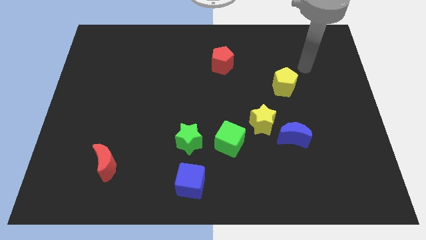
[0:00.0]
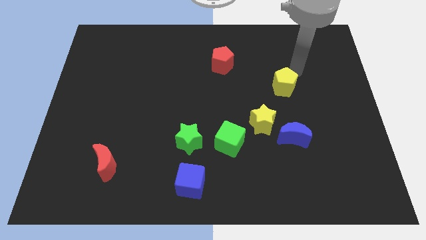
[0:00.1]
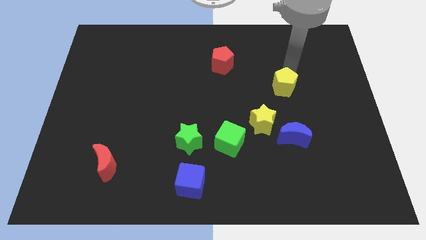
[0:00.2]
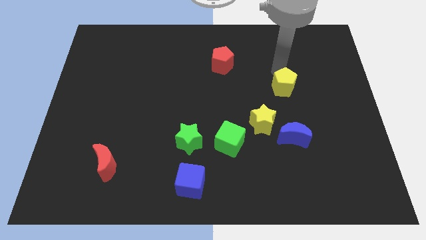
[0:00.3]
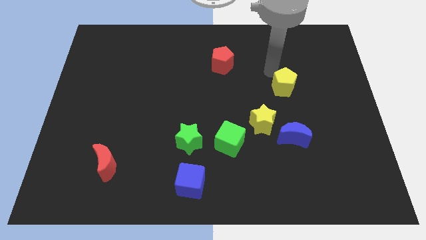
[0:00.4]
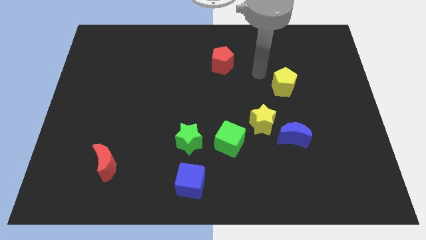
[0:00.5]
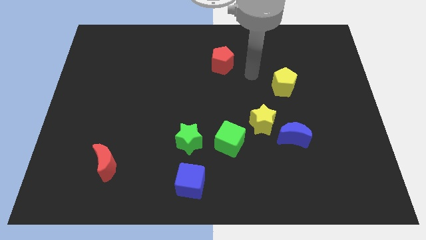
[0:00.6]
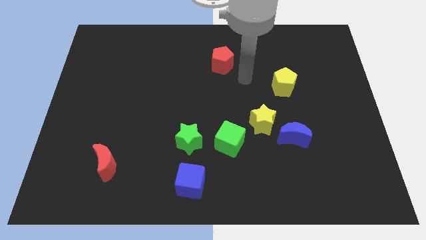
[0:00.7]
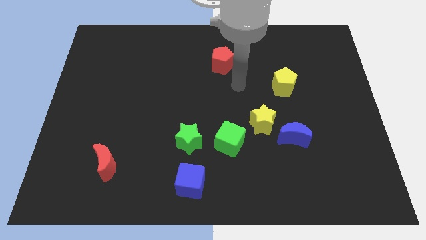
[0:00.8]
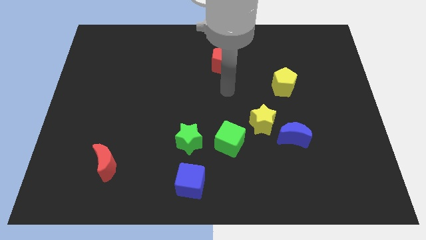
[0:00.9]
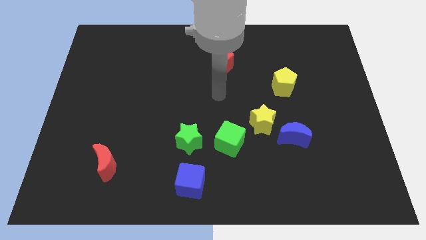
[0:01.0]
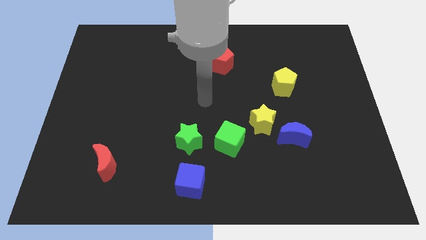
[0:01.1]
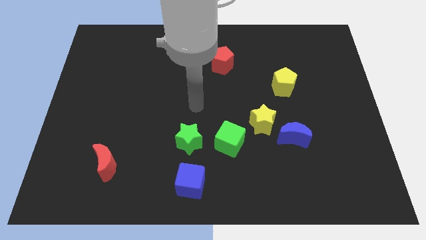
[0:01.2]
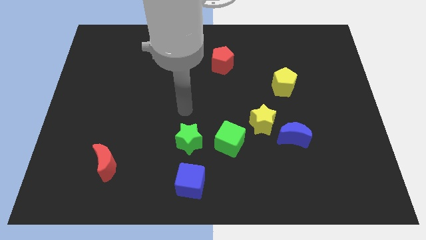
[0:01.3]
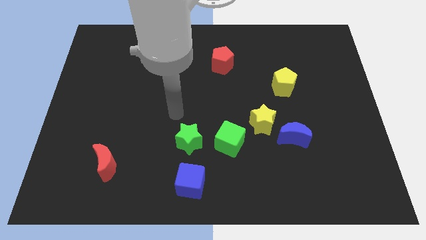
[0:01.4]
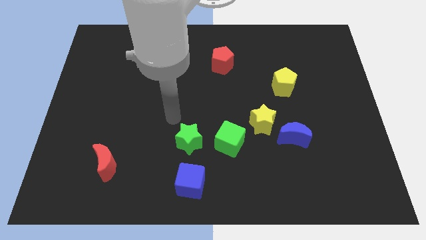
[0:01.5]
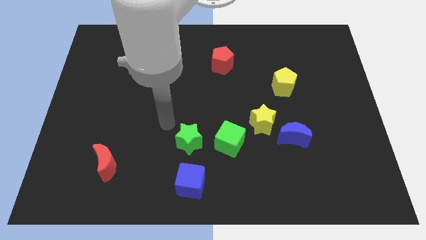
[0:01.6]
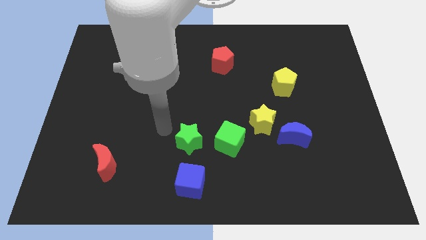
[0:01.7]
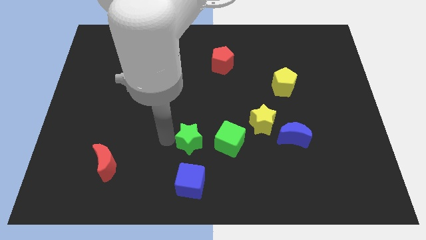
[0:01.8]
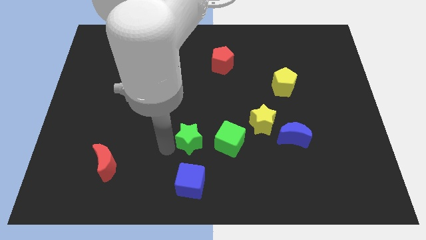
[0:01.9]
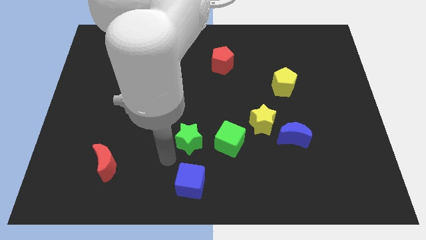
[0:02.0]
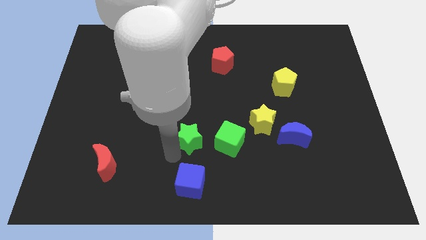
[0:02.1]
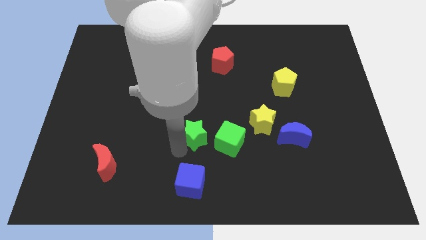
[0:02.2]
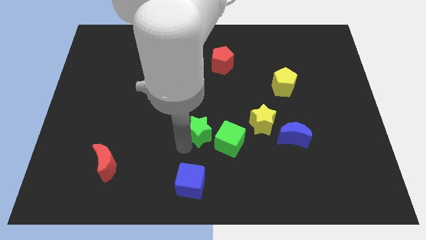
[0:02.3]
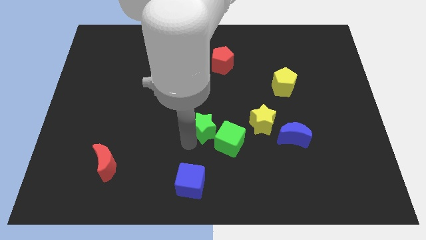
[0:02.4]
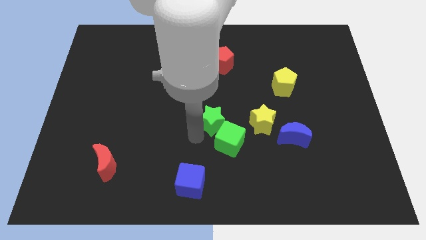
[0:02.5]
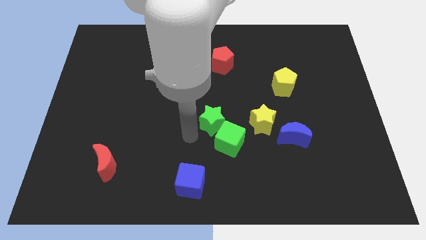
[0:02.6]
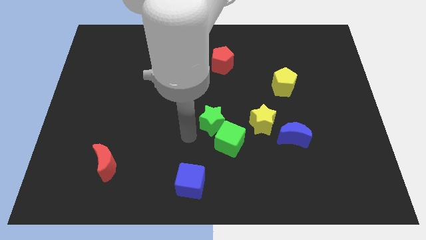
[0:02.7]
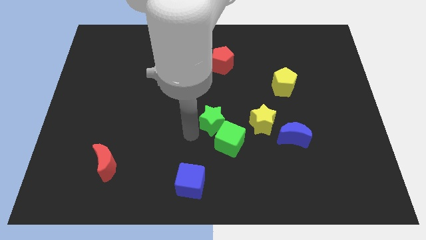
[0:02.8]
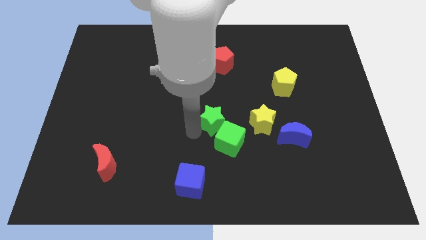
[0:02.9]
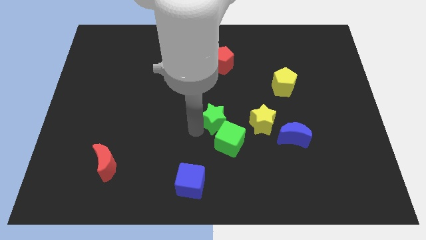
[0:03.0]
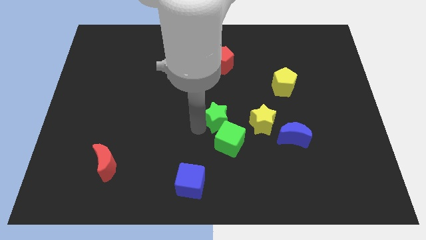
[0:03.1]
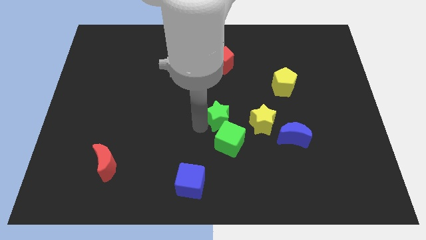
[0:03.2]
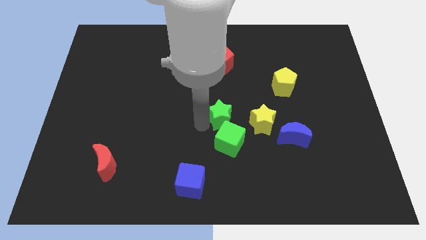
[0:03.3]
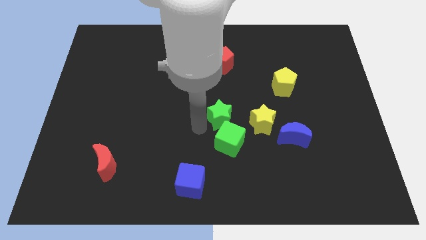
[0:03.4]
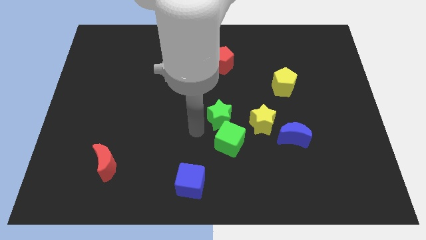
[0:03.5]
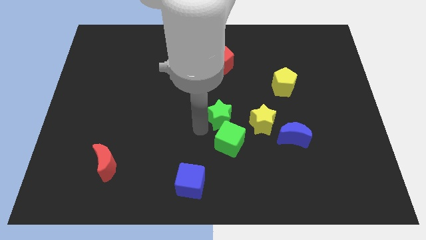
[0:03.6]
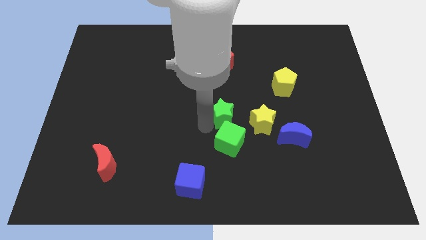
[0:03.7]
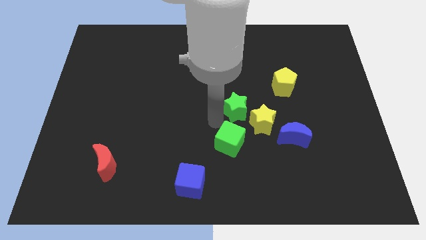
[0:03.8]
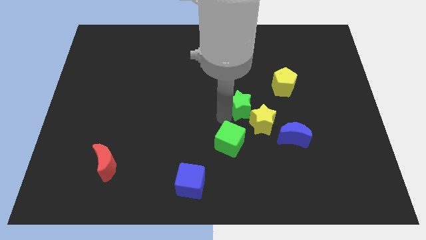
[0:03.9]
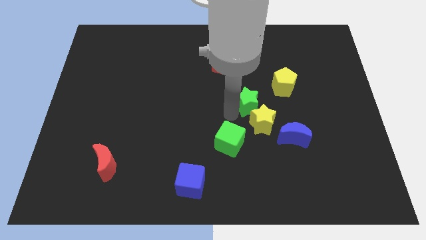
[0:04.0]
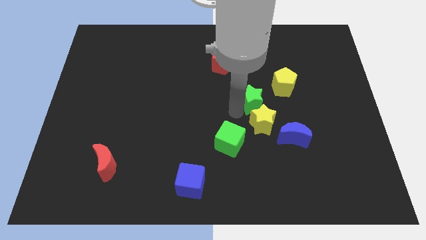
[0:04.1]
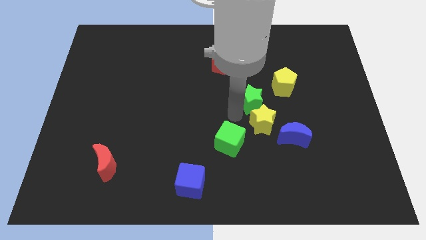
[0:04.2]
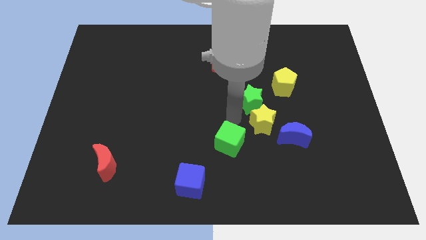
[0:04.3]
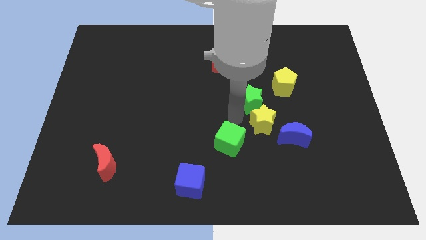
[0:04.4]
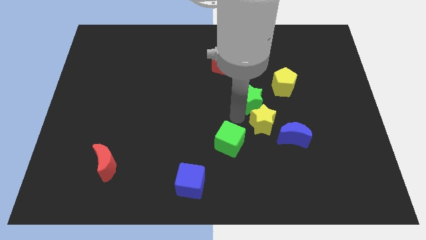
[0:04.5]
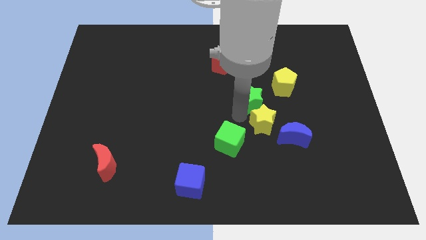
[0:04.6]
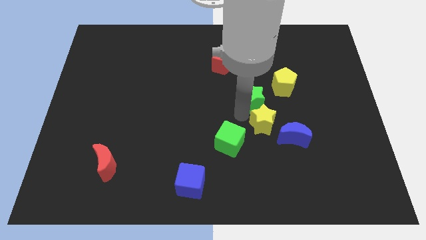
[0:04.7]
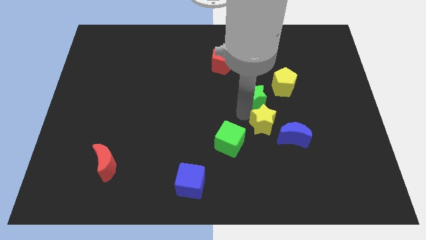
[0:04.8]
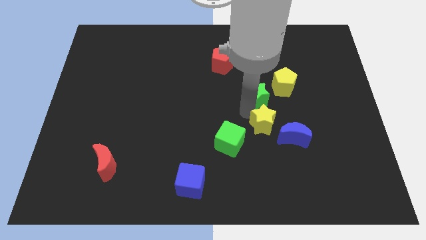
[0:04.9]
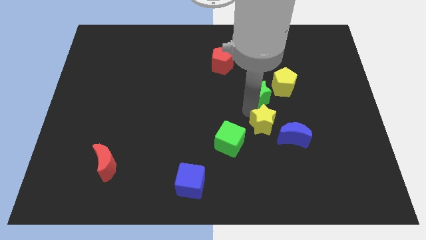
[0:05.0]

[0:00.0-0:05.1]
push the green star up and to the right diagonally

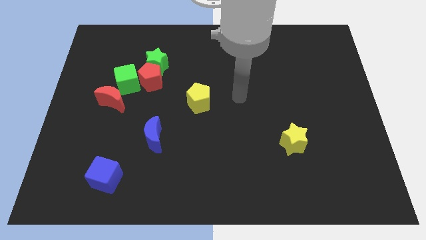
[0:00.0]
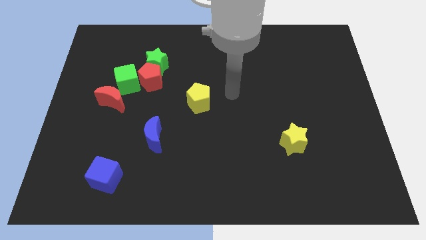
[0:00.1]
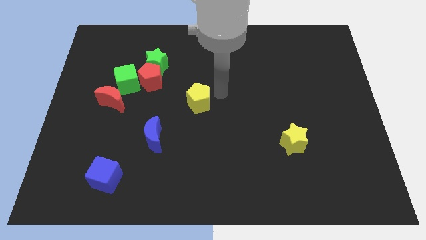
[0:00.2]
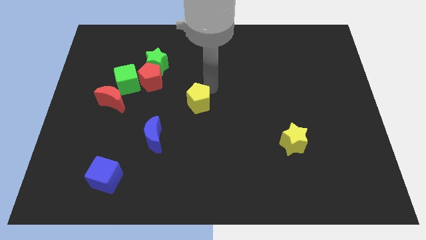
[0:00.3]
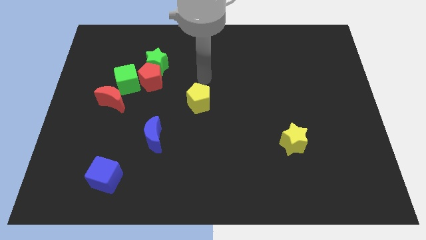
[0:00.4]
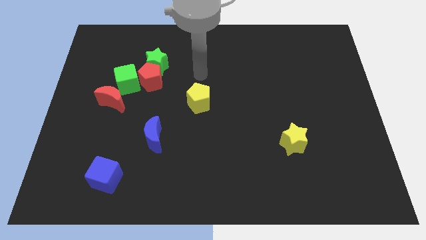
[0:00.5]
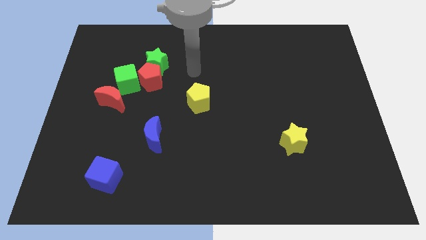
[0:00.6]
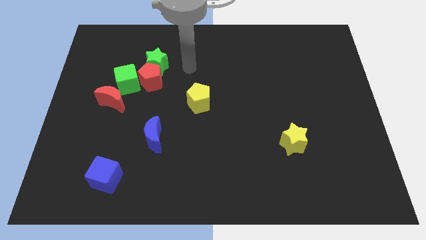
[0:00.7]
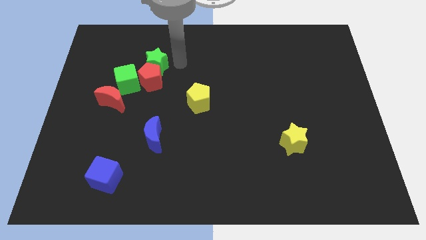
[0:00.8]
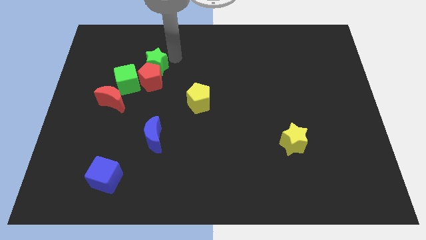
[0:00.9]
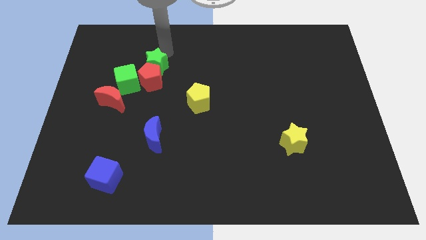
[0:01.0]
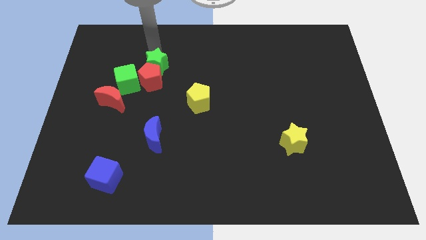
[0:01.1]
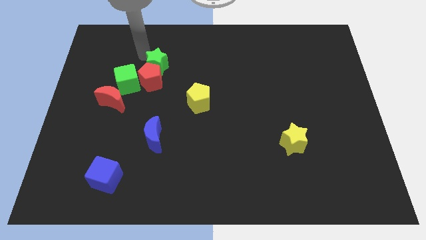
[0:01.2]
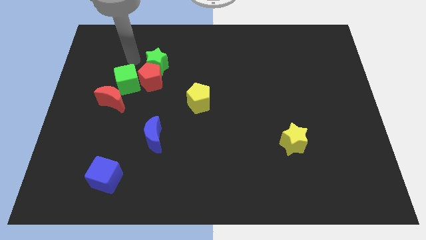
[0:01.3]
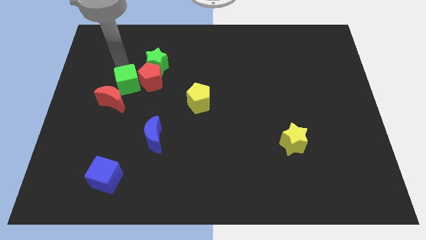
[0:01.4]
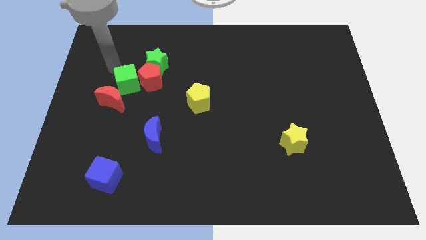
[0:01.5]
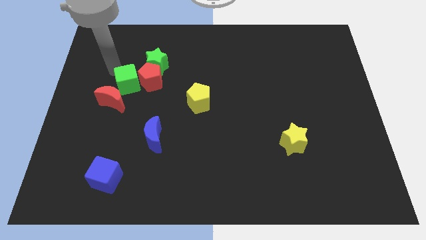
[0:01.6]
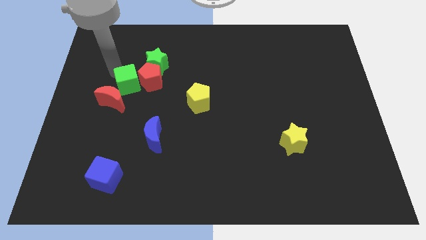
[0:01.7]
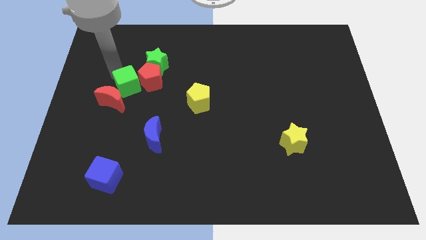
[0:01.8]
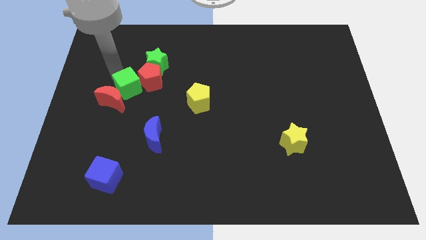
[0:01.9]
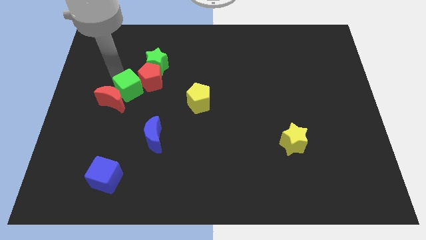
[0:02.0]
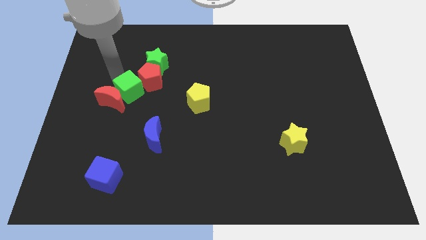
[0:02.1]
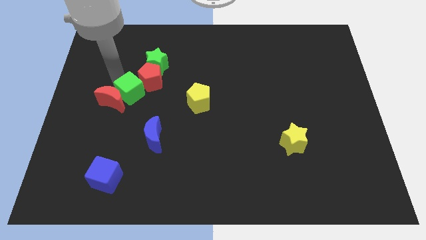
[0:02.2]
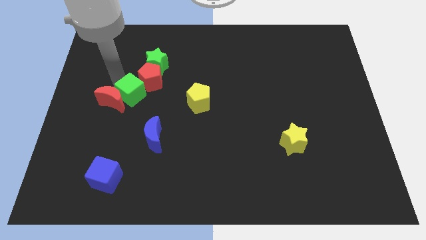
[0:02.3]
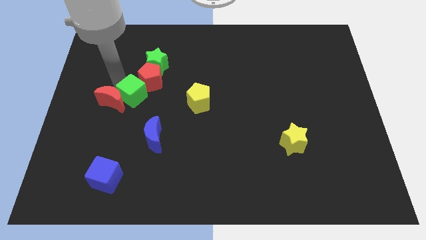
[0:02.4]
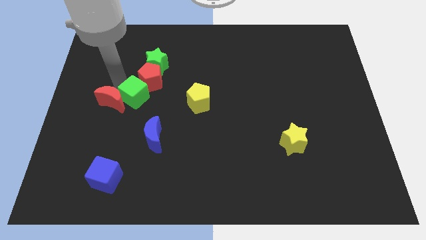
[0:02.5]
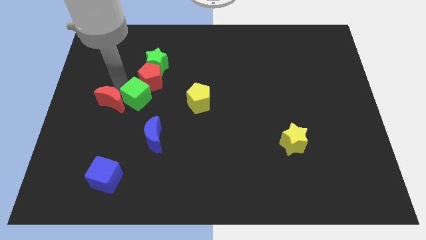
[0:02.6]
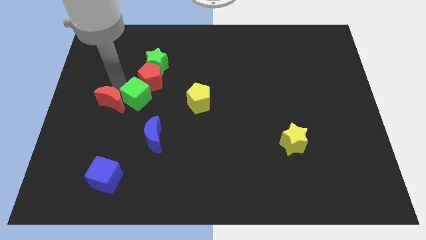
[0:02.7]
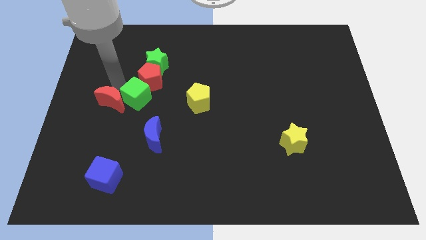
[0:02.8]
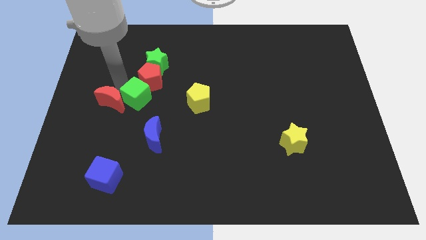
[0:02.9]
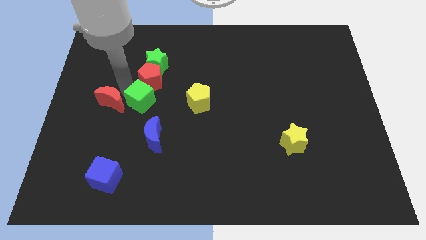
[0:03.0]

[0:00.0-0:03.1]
move the green cube a little bit down and right
